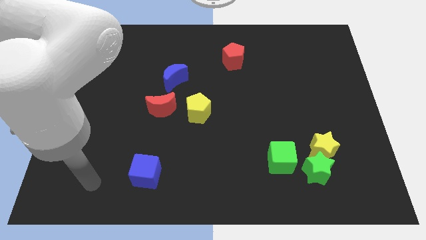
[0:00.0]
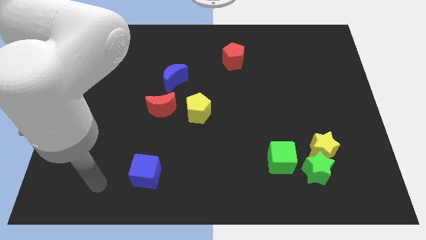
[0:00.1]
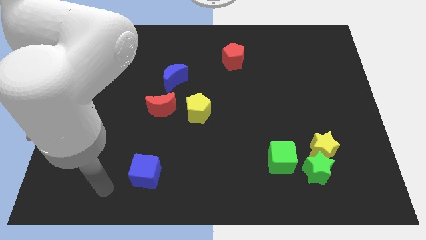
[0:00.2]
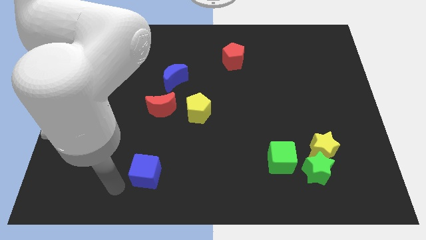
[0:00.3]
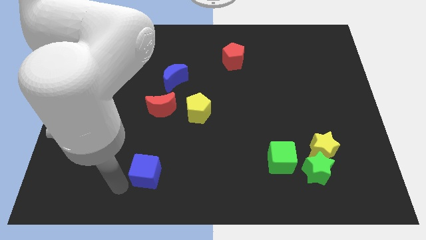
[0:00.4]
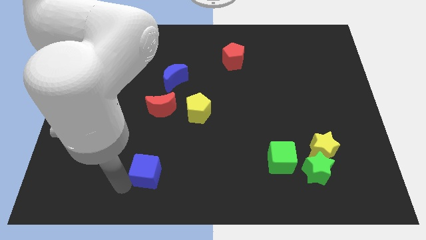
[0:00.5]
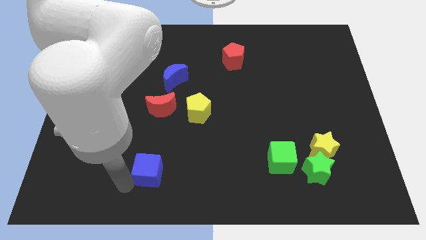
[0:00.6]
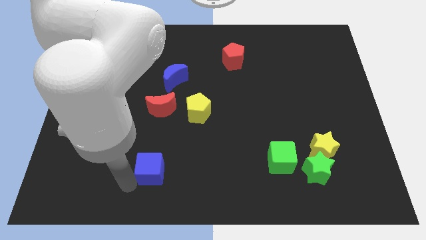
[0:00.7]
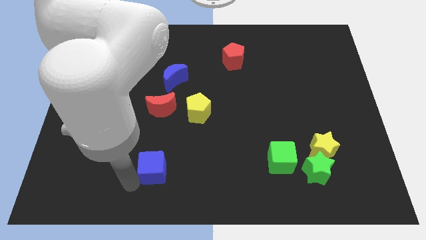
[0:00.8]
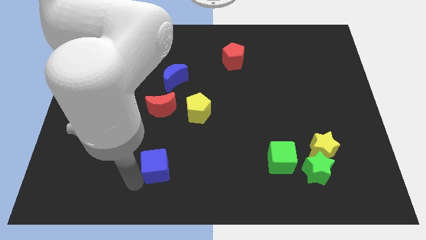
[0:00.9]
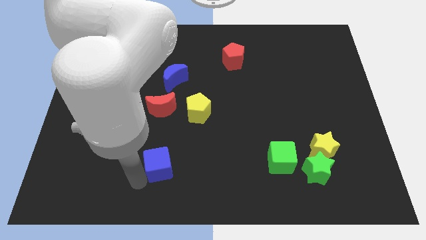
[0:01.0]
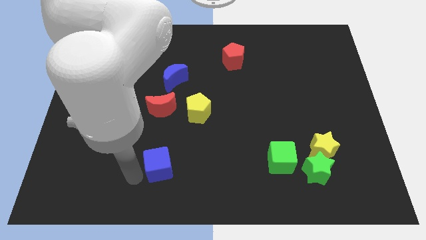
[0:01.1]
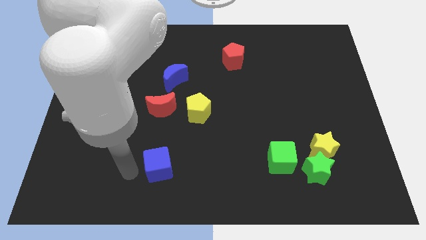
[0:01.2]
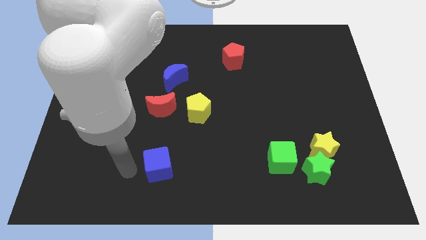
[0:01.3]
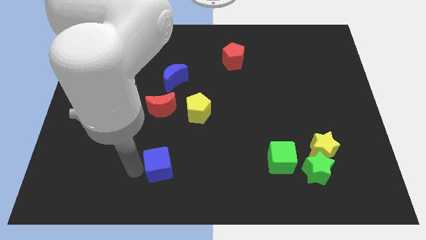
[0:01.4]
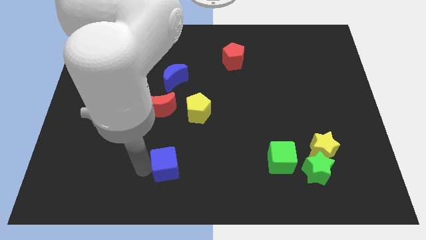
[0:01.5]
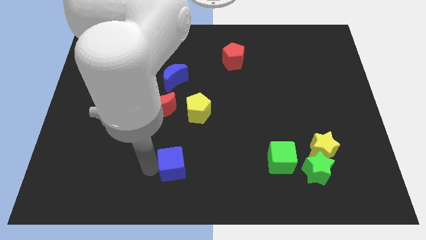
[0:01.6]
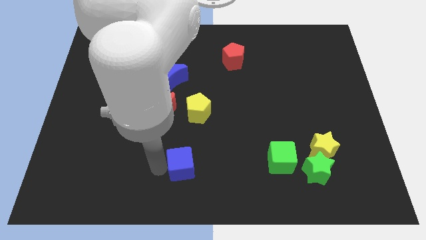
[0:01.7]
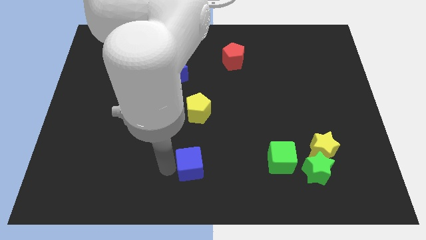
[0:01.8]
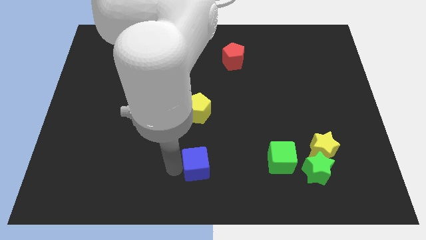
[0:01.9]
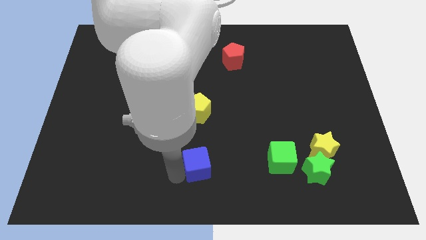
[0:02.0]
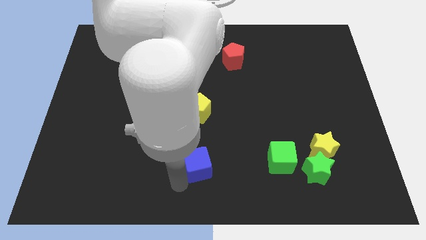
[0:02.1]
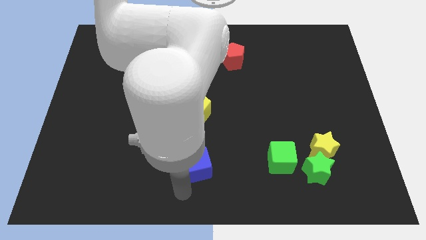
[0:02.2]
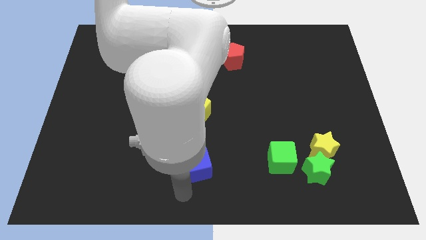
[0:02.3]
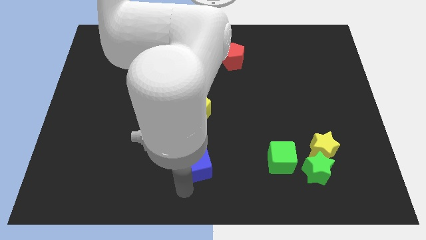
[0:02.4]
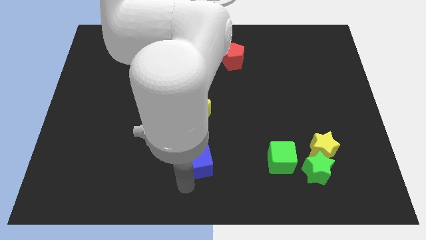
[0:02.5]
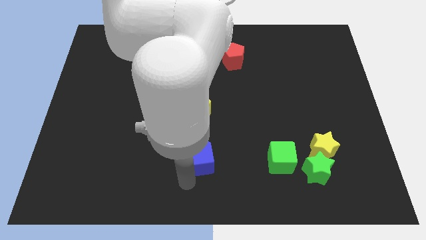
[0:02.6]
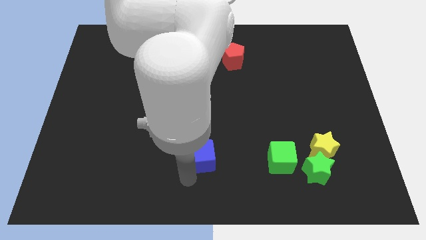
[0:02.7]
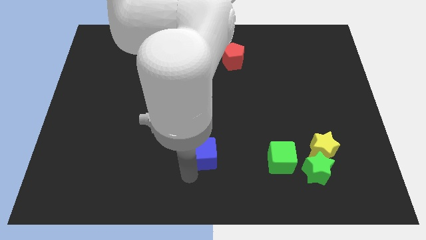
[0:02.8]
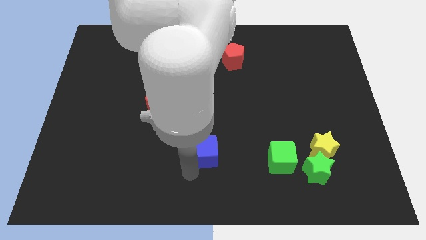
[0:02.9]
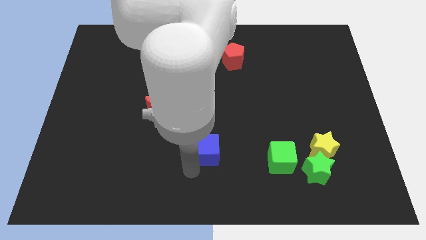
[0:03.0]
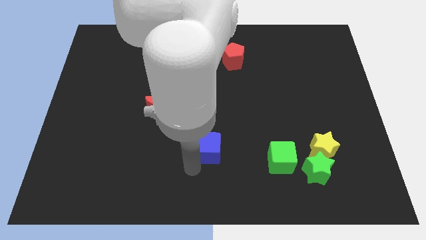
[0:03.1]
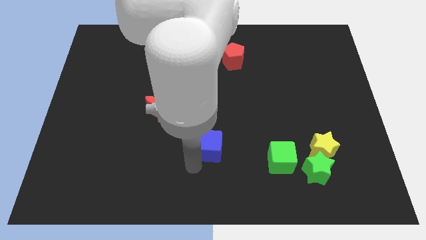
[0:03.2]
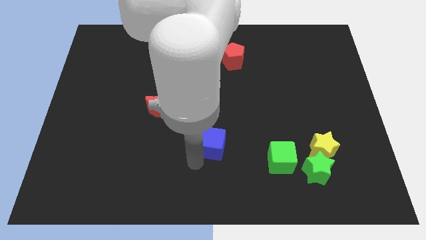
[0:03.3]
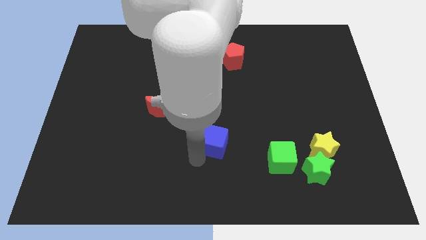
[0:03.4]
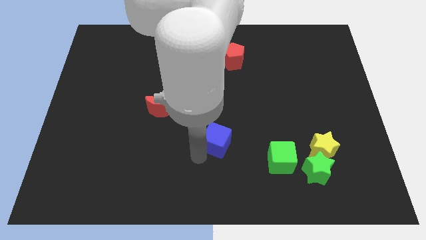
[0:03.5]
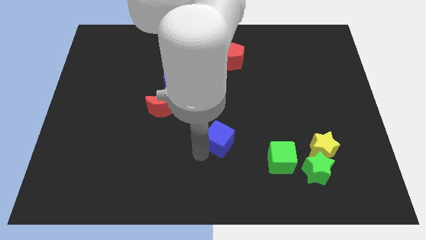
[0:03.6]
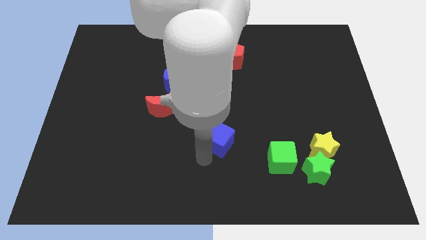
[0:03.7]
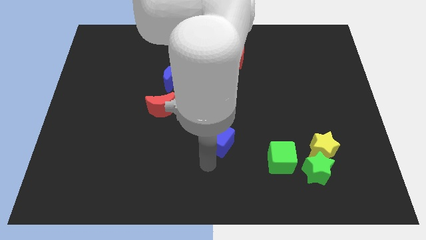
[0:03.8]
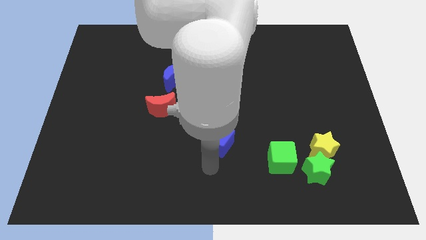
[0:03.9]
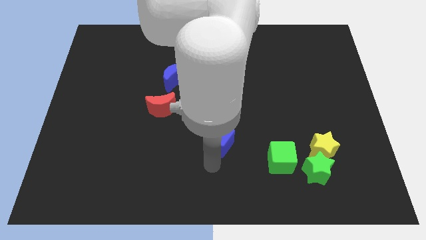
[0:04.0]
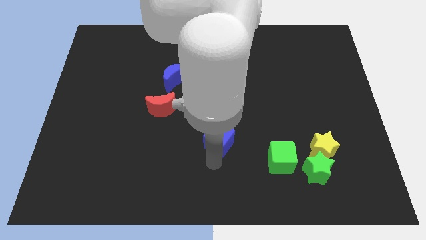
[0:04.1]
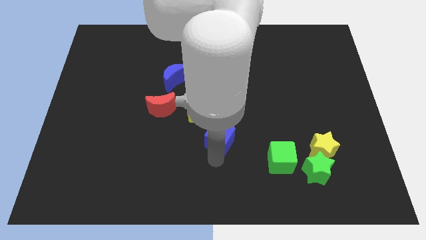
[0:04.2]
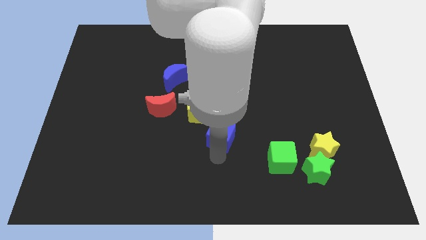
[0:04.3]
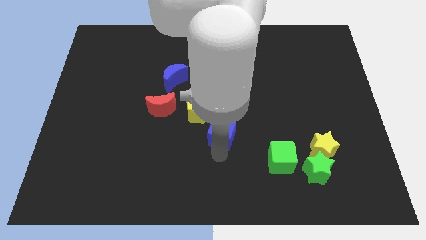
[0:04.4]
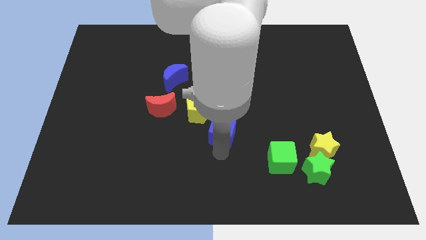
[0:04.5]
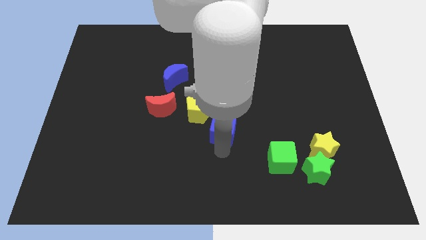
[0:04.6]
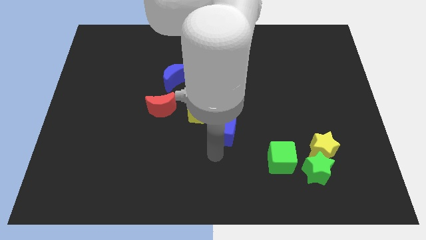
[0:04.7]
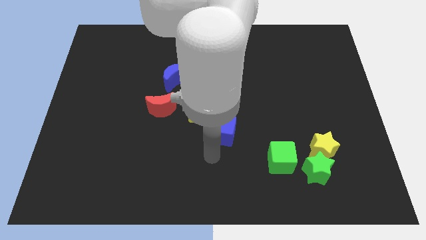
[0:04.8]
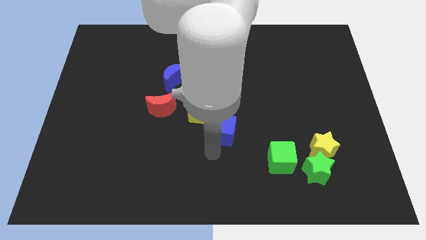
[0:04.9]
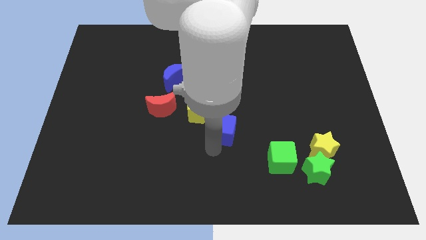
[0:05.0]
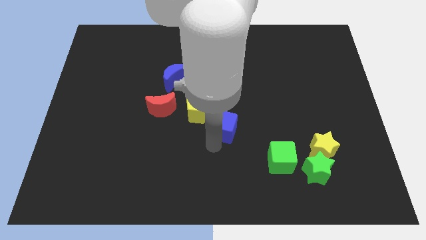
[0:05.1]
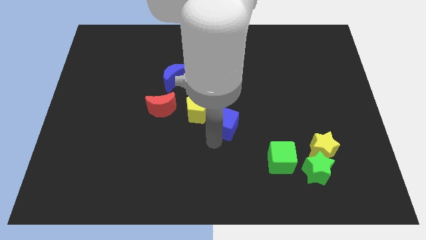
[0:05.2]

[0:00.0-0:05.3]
move the blue cube up and then right

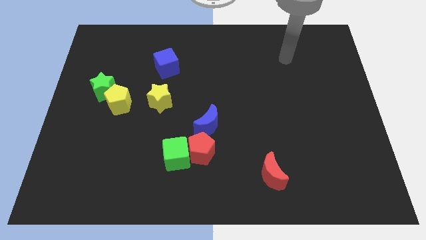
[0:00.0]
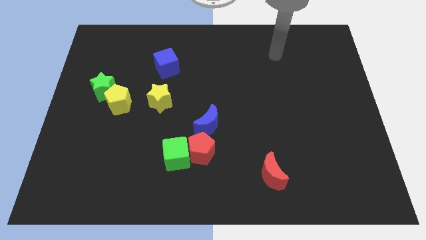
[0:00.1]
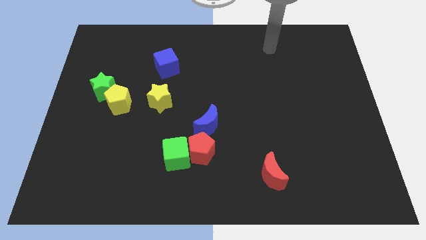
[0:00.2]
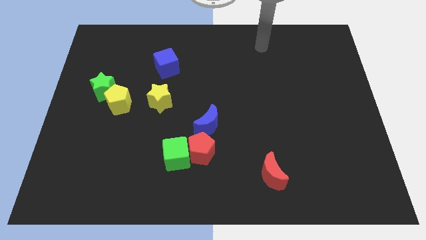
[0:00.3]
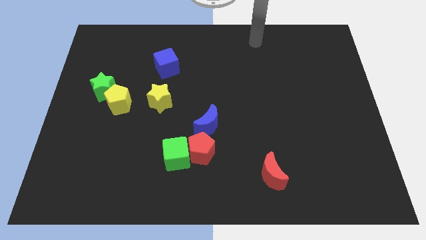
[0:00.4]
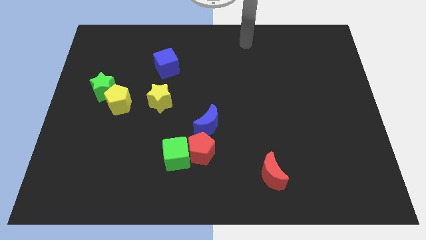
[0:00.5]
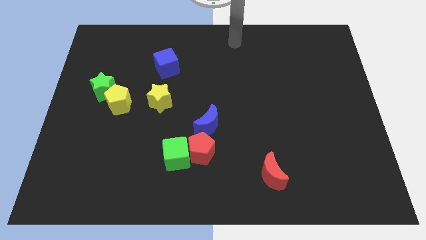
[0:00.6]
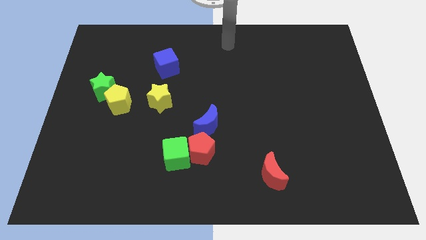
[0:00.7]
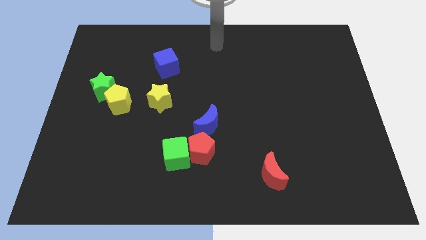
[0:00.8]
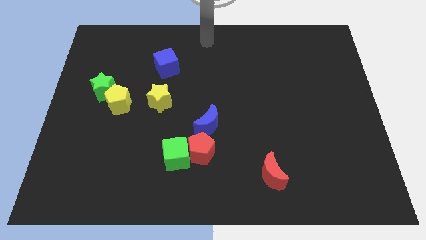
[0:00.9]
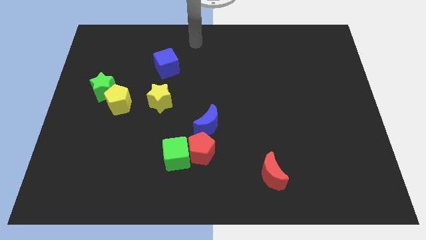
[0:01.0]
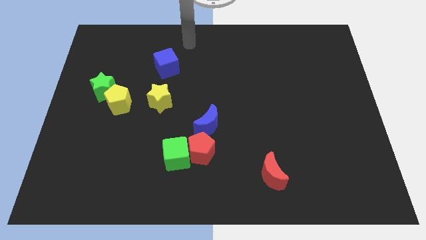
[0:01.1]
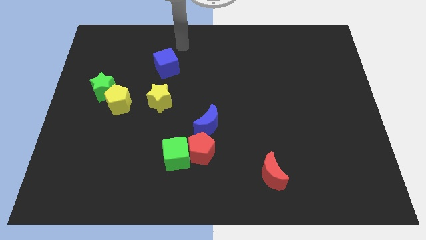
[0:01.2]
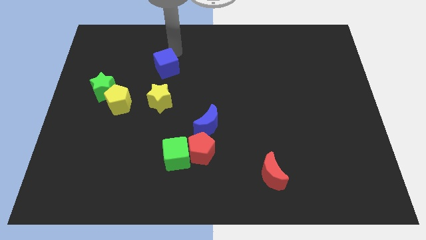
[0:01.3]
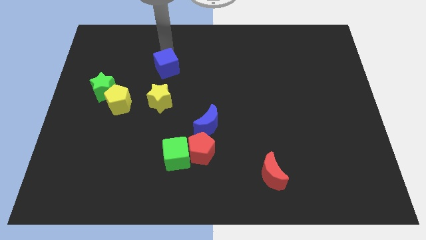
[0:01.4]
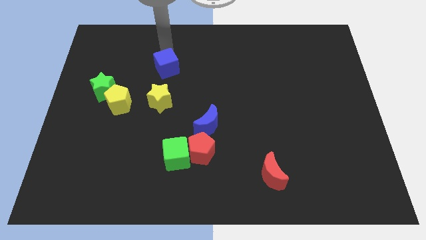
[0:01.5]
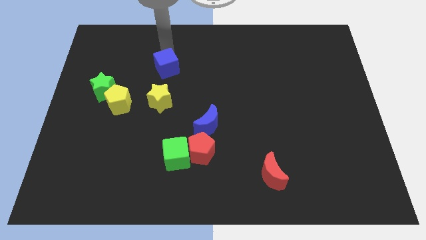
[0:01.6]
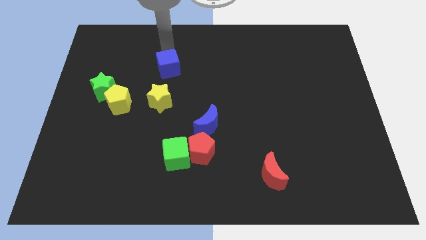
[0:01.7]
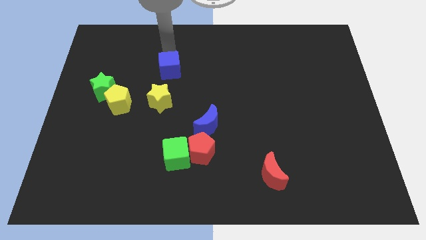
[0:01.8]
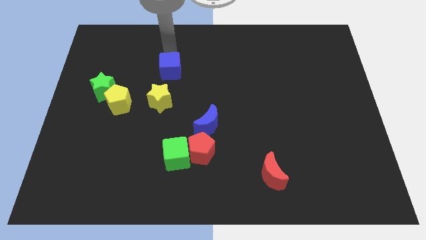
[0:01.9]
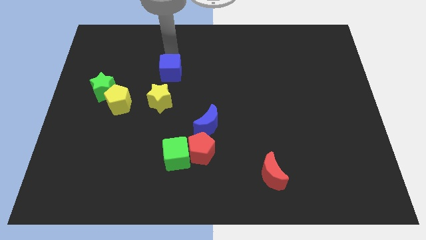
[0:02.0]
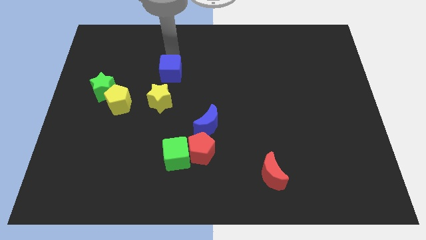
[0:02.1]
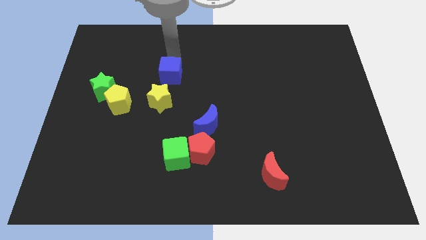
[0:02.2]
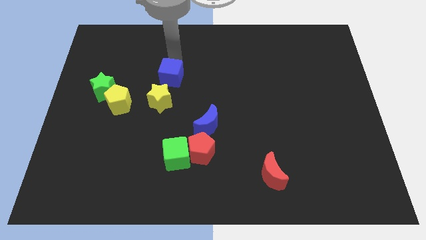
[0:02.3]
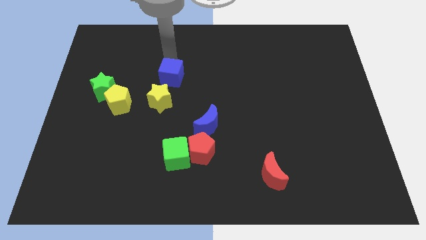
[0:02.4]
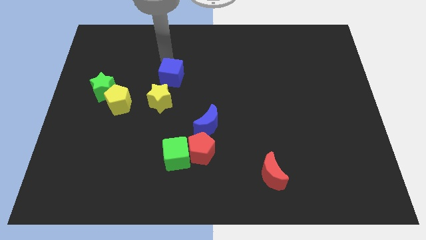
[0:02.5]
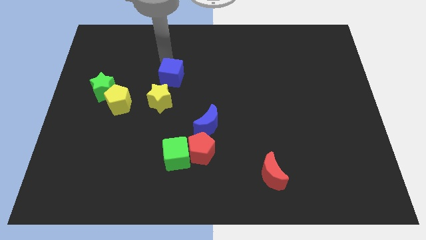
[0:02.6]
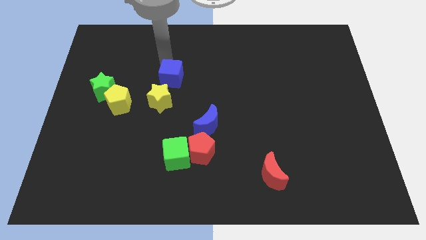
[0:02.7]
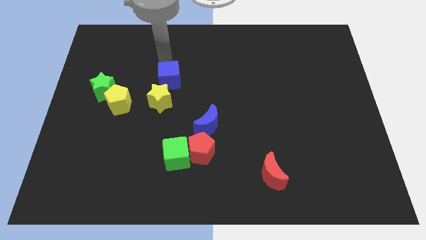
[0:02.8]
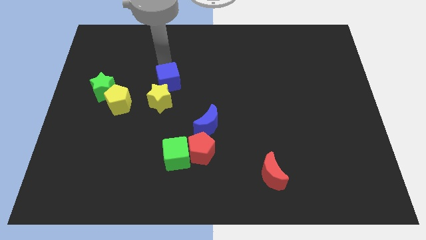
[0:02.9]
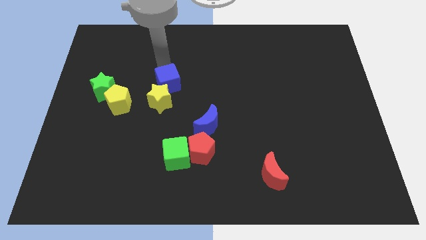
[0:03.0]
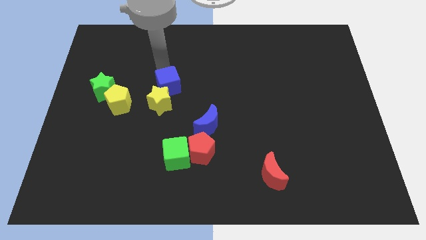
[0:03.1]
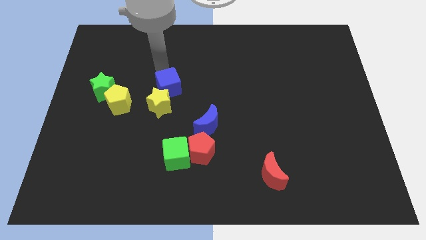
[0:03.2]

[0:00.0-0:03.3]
slide the blue cube down a little
